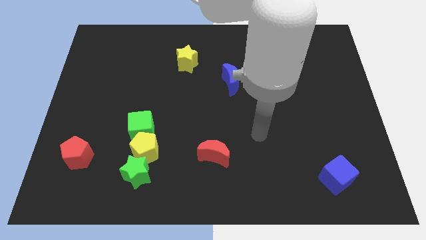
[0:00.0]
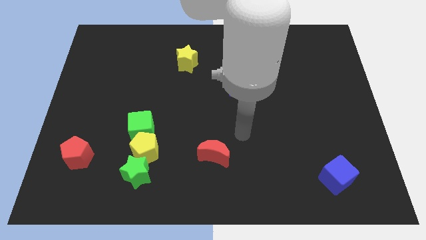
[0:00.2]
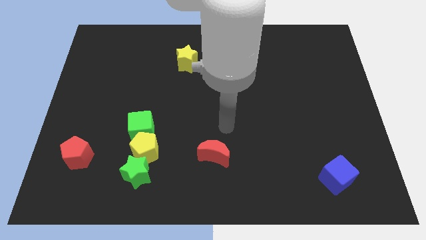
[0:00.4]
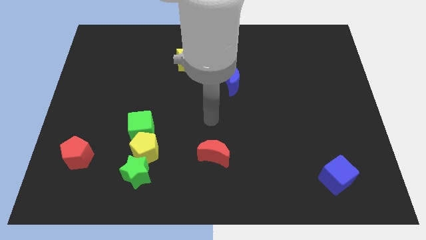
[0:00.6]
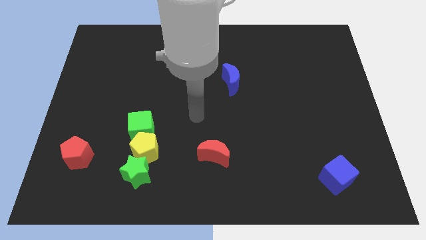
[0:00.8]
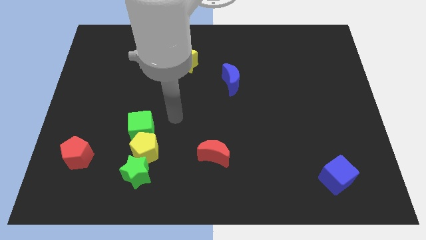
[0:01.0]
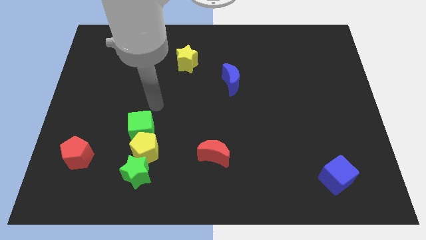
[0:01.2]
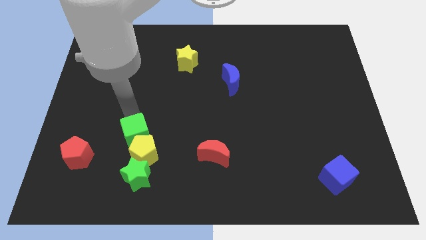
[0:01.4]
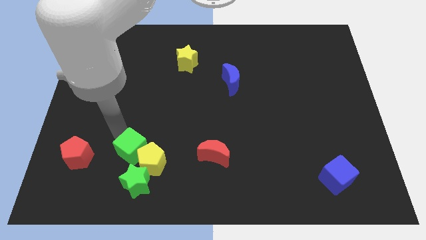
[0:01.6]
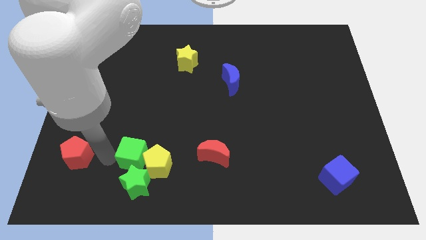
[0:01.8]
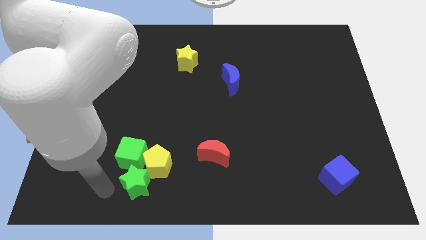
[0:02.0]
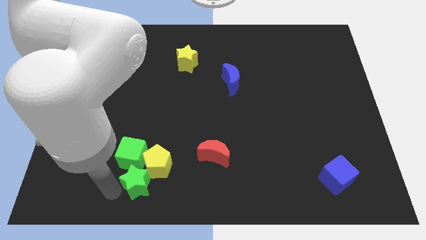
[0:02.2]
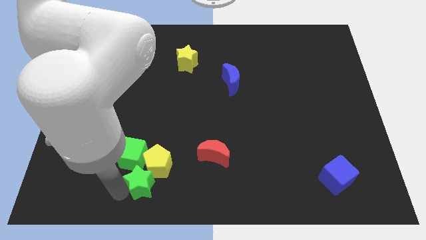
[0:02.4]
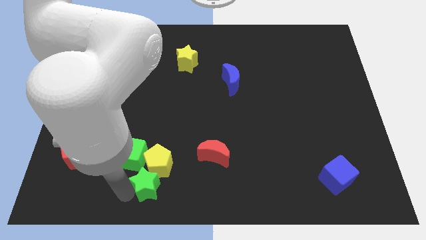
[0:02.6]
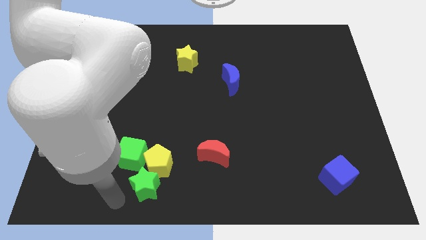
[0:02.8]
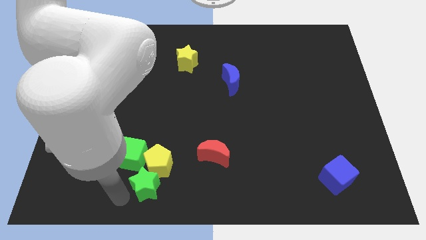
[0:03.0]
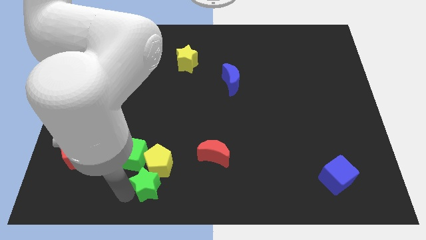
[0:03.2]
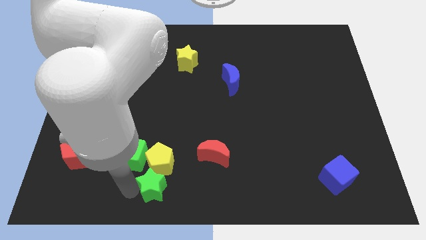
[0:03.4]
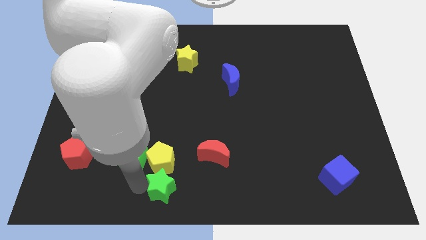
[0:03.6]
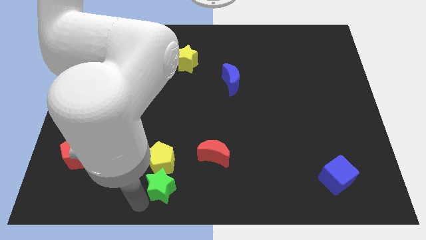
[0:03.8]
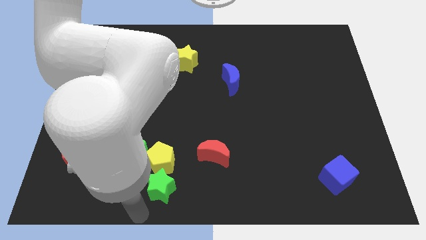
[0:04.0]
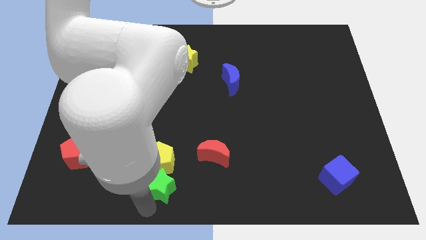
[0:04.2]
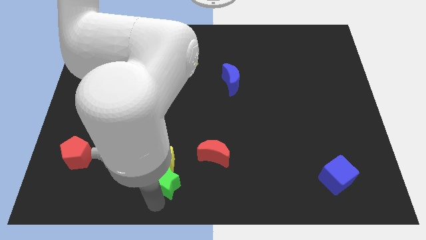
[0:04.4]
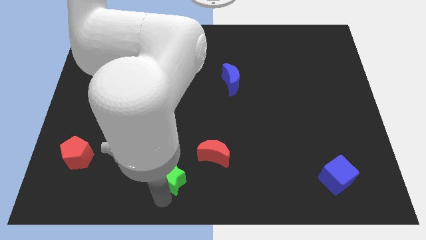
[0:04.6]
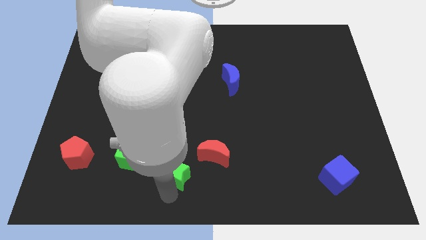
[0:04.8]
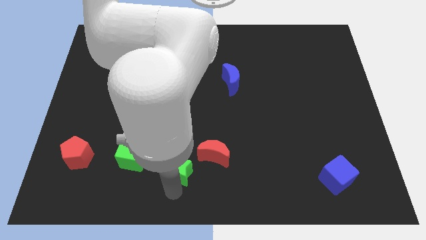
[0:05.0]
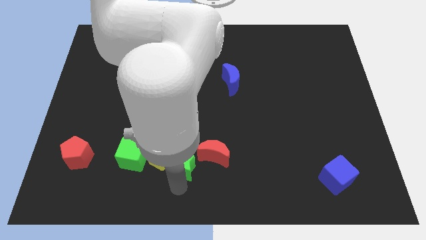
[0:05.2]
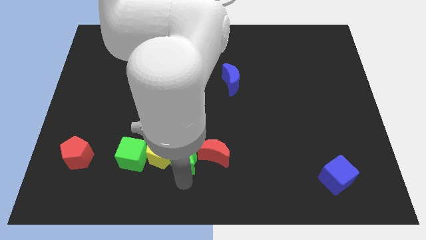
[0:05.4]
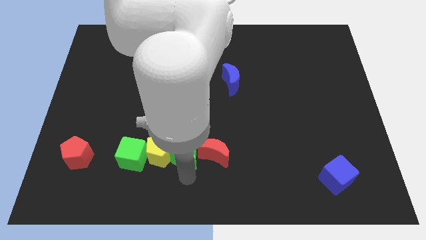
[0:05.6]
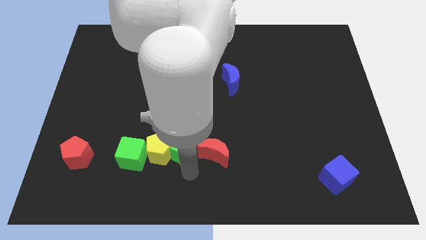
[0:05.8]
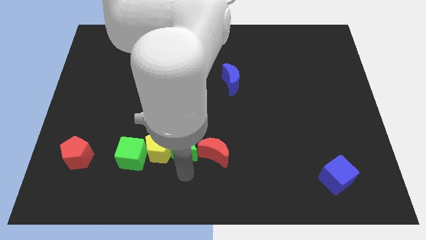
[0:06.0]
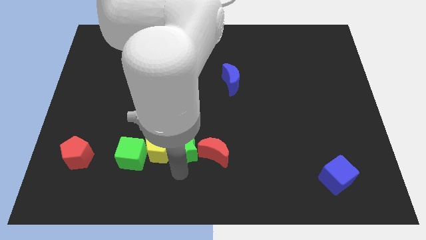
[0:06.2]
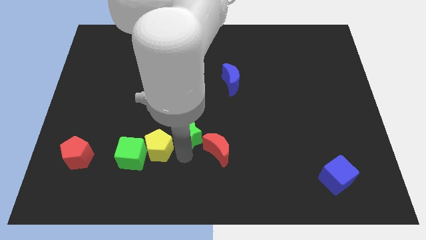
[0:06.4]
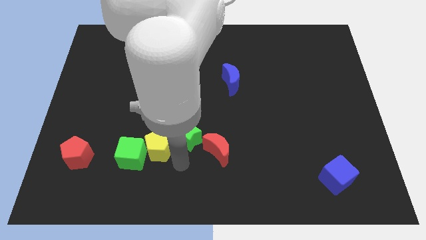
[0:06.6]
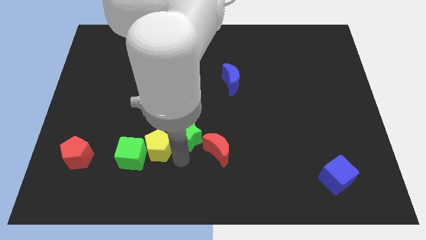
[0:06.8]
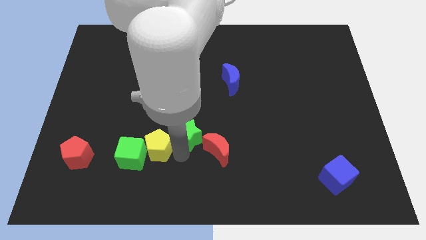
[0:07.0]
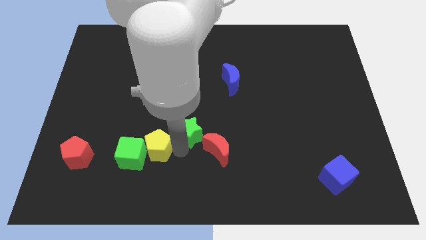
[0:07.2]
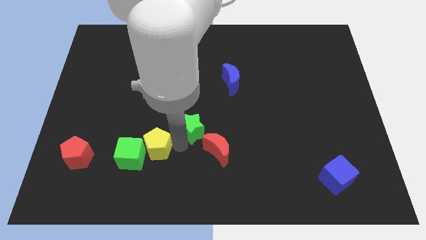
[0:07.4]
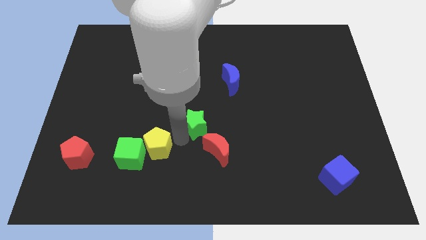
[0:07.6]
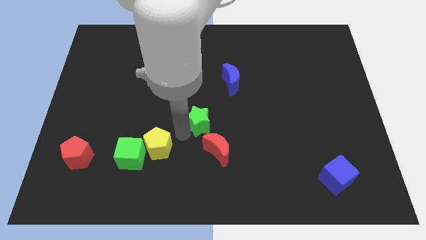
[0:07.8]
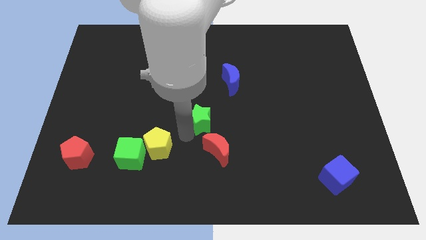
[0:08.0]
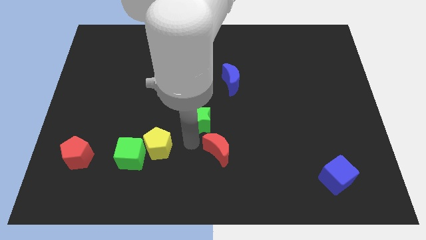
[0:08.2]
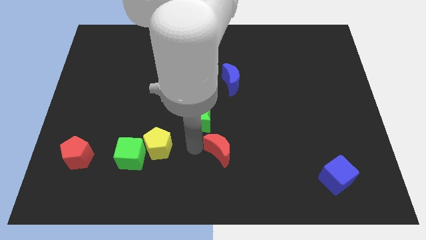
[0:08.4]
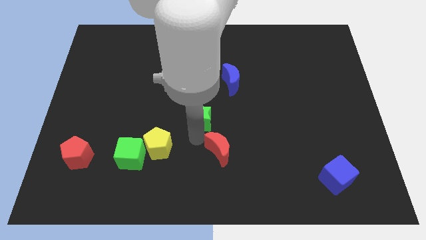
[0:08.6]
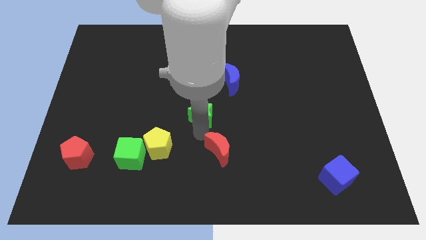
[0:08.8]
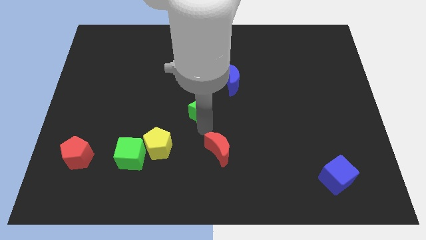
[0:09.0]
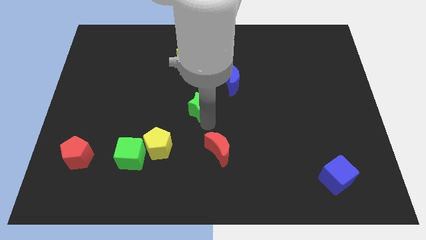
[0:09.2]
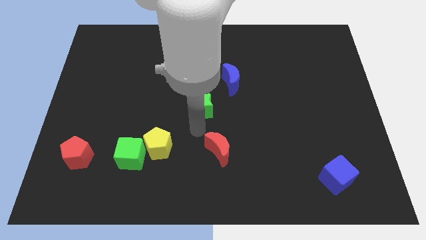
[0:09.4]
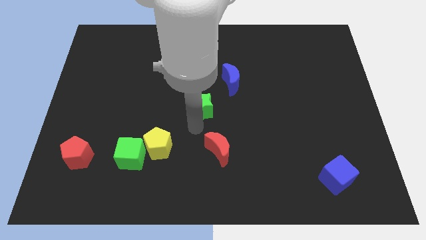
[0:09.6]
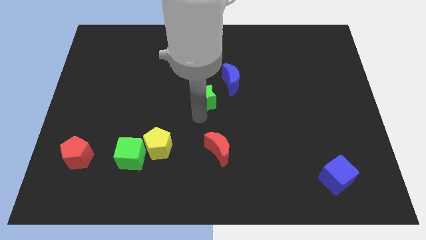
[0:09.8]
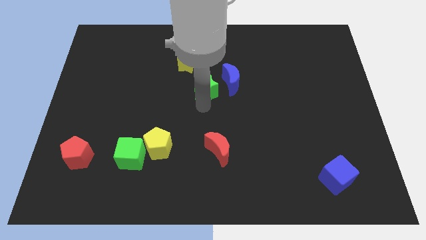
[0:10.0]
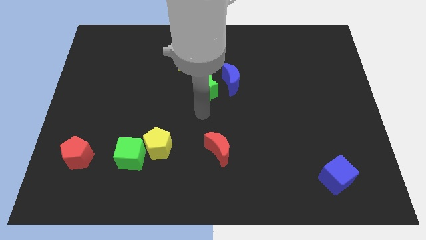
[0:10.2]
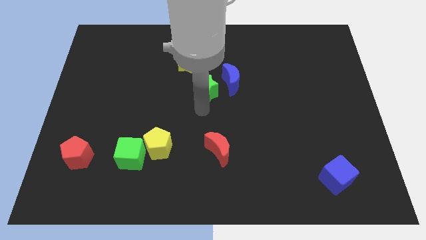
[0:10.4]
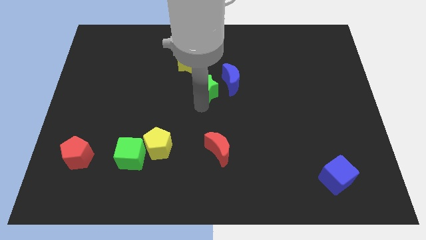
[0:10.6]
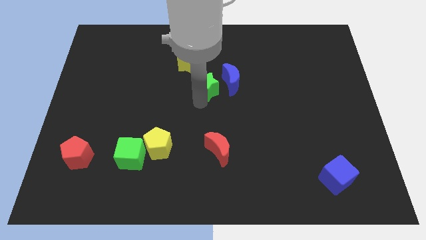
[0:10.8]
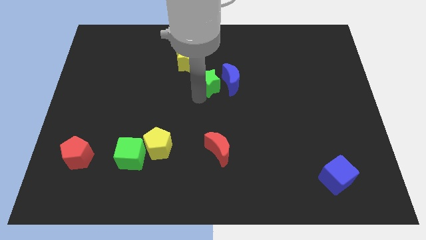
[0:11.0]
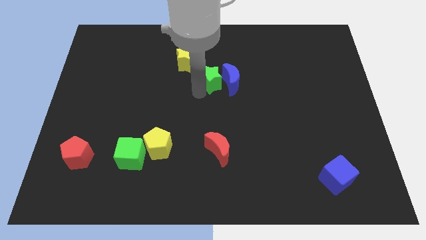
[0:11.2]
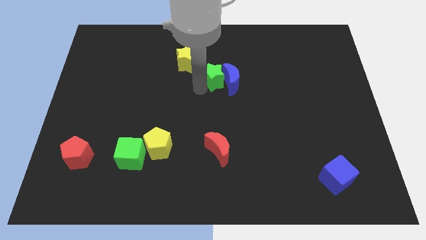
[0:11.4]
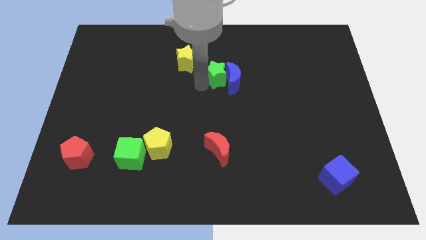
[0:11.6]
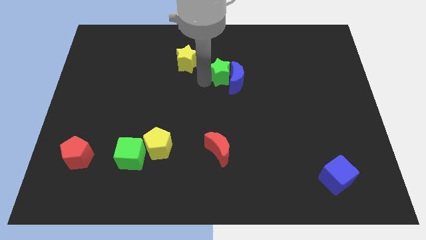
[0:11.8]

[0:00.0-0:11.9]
slide the green star to the right side of the yellow star

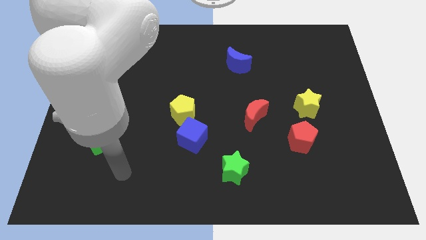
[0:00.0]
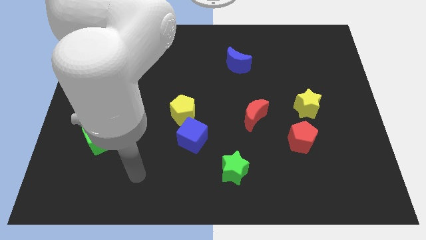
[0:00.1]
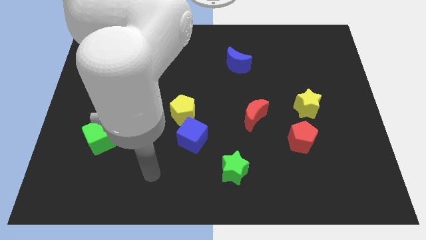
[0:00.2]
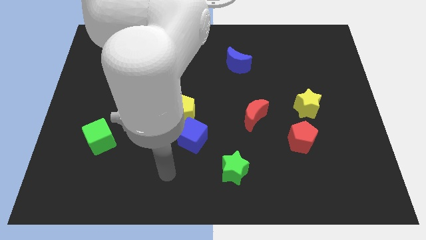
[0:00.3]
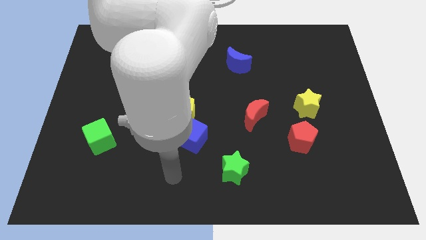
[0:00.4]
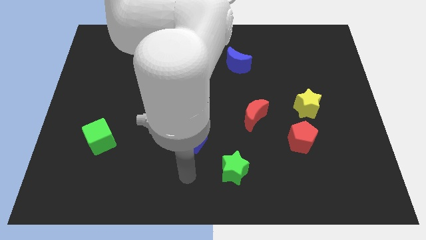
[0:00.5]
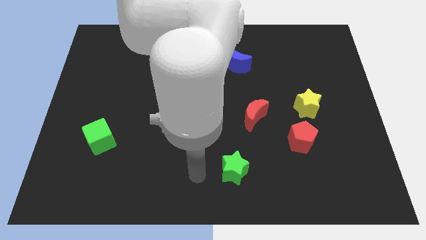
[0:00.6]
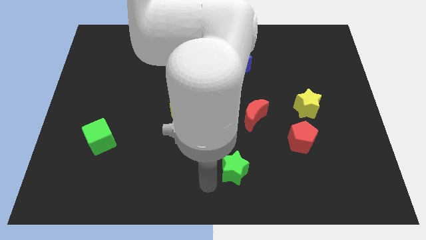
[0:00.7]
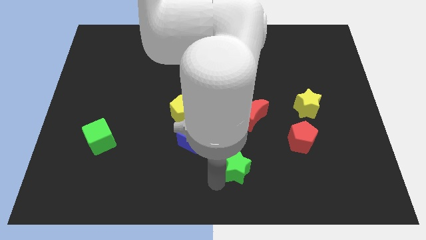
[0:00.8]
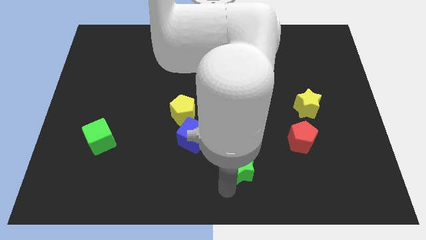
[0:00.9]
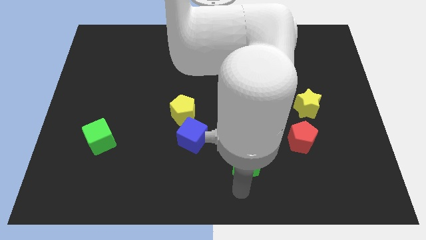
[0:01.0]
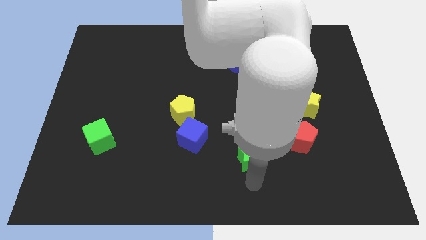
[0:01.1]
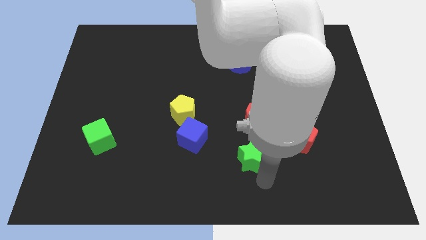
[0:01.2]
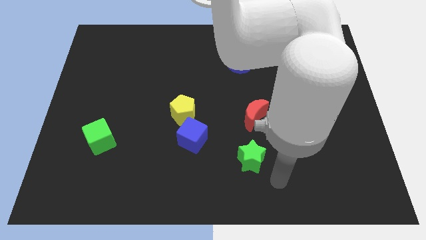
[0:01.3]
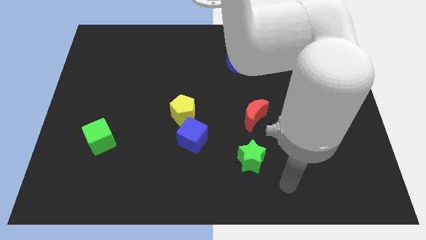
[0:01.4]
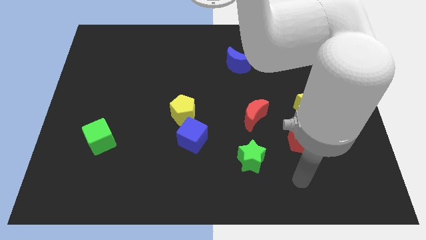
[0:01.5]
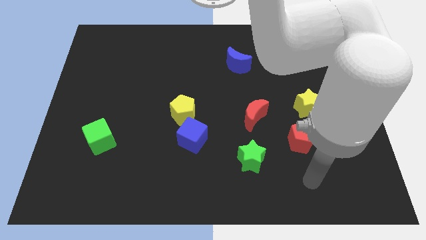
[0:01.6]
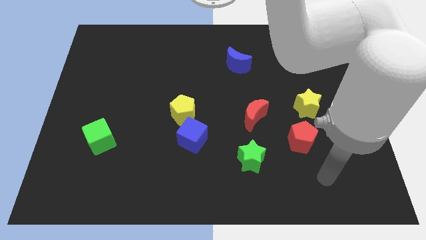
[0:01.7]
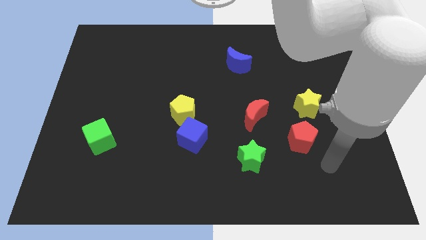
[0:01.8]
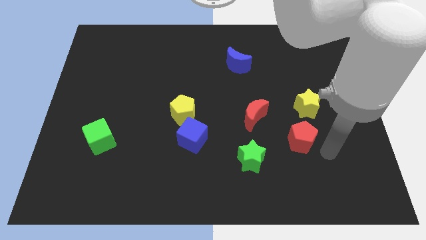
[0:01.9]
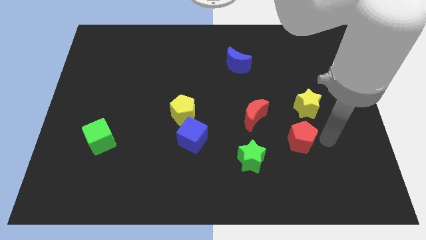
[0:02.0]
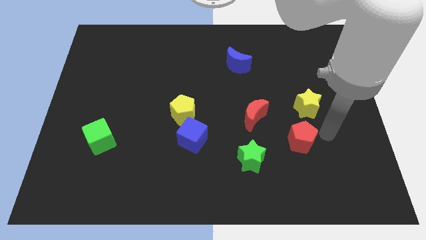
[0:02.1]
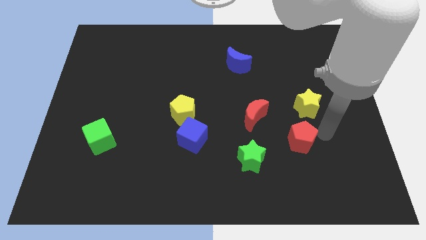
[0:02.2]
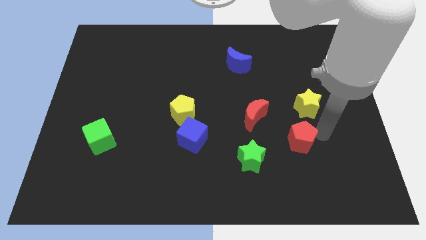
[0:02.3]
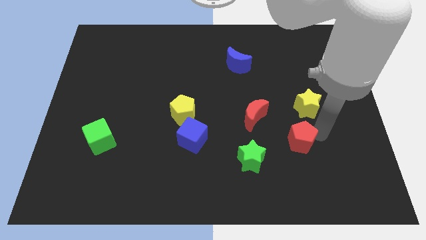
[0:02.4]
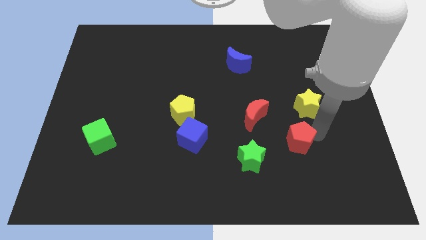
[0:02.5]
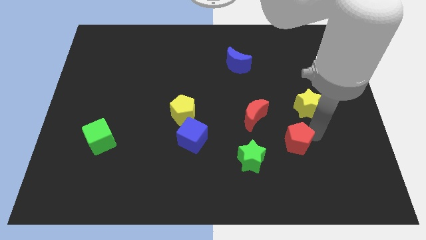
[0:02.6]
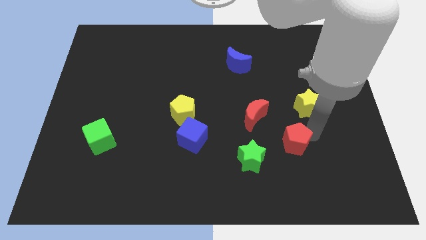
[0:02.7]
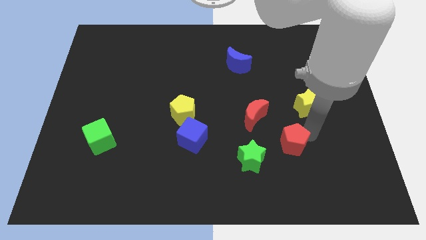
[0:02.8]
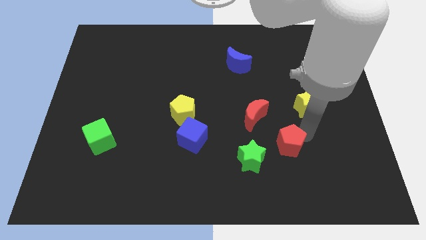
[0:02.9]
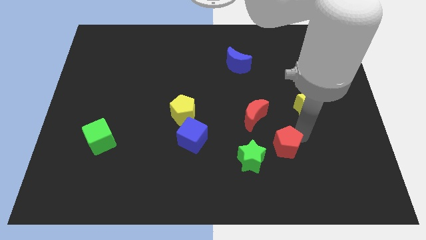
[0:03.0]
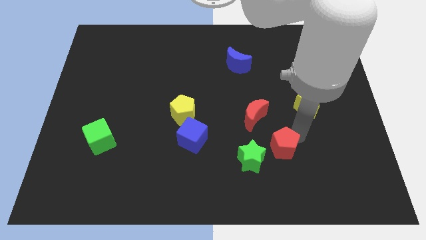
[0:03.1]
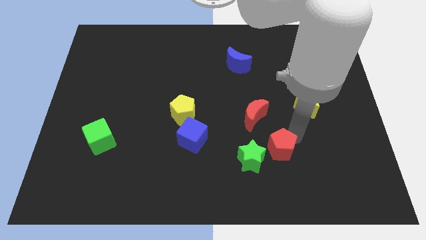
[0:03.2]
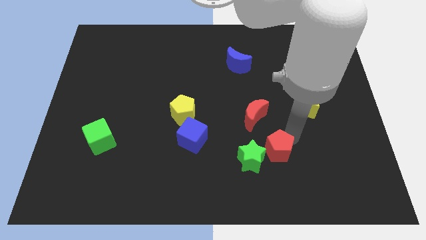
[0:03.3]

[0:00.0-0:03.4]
push the red pentagon below the red moon
